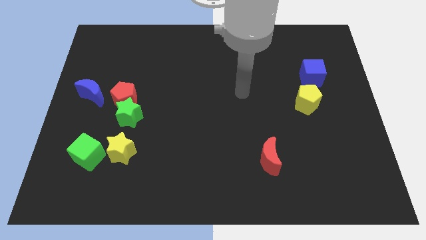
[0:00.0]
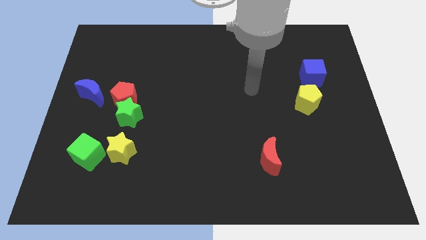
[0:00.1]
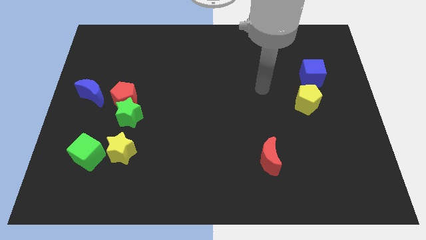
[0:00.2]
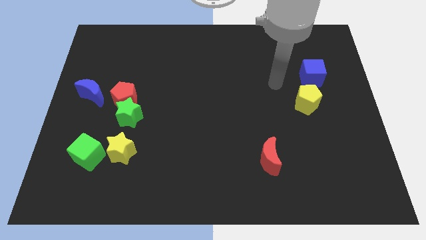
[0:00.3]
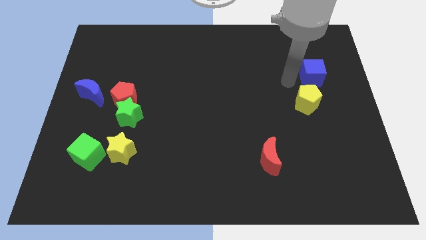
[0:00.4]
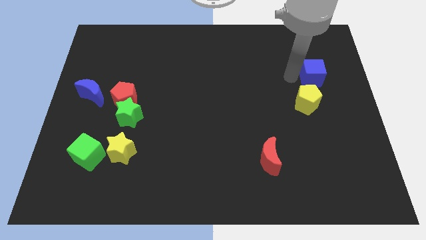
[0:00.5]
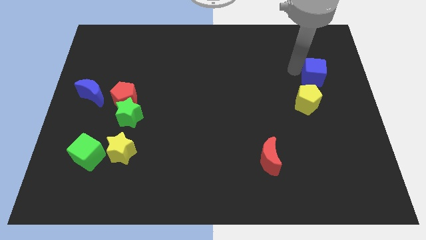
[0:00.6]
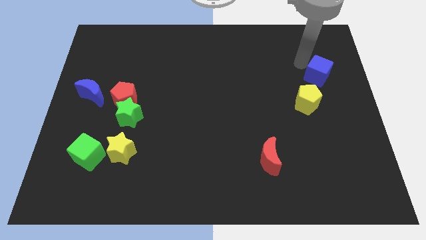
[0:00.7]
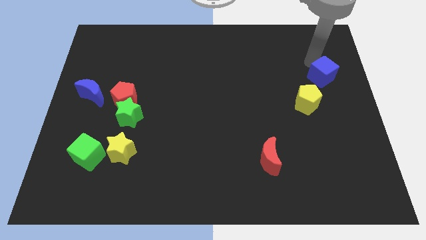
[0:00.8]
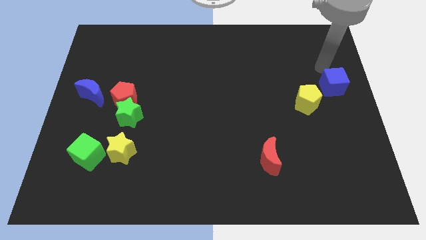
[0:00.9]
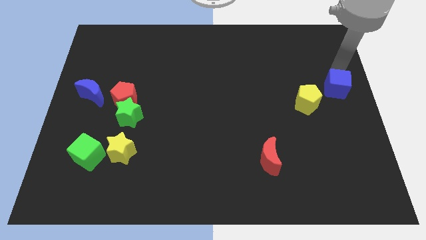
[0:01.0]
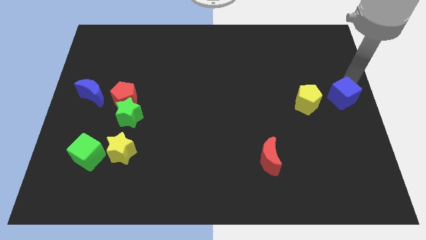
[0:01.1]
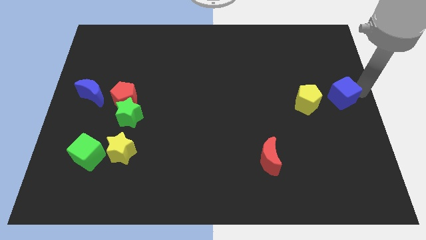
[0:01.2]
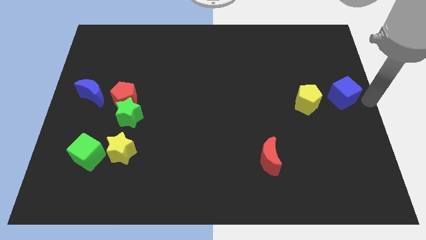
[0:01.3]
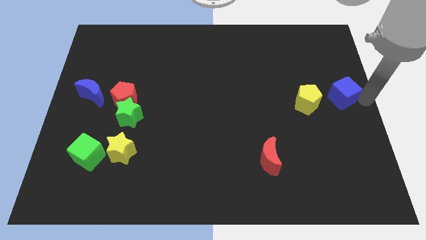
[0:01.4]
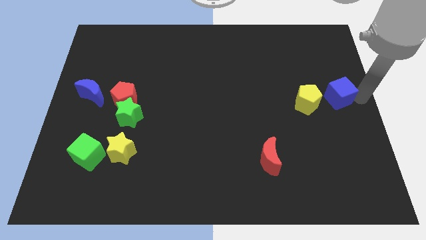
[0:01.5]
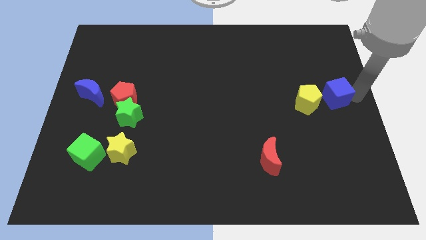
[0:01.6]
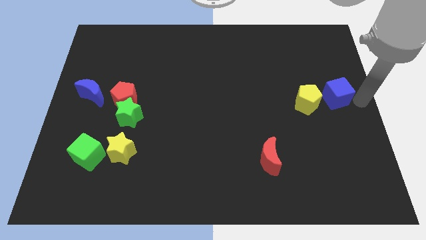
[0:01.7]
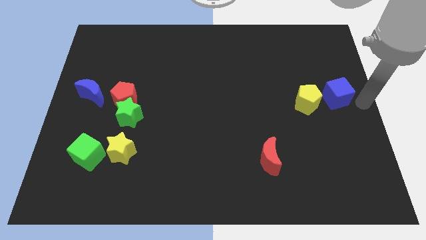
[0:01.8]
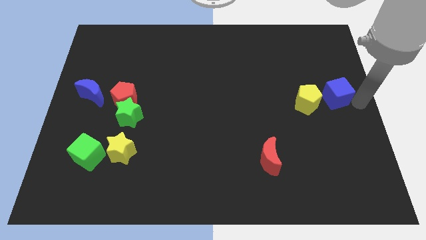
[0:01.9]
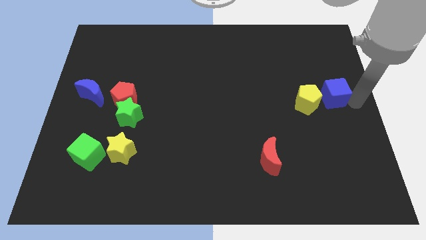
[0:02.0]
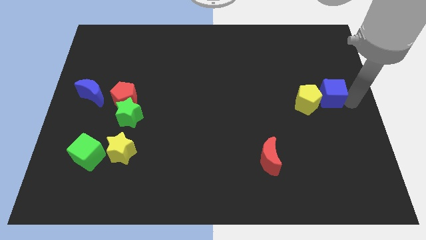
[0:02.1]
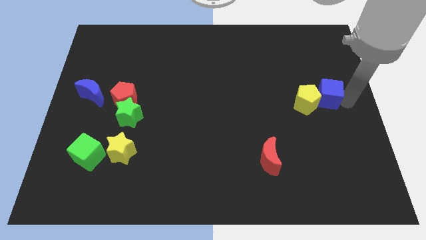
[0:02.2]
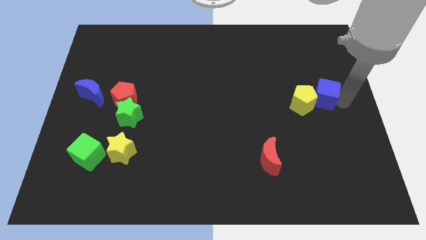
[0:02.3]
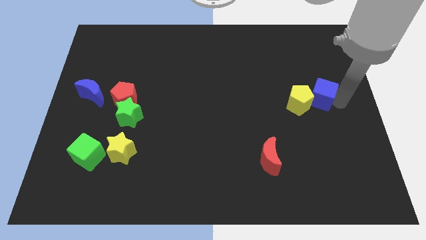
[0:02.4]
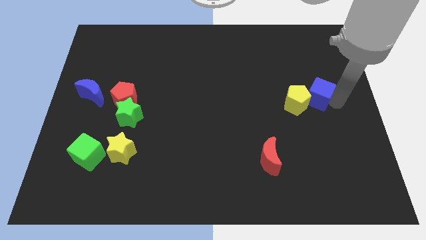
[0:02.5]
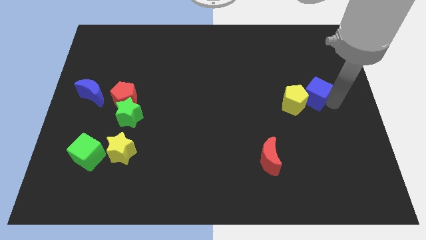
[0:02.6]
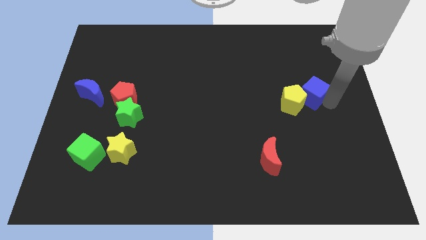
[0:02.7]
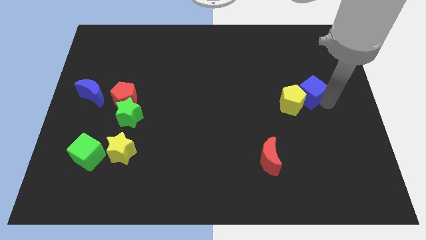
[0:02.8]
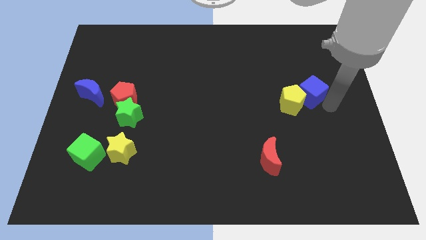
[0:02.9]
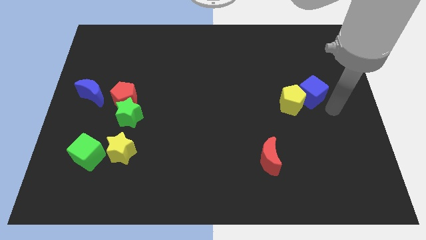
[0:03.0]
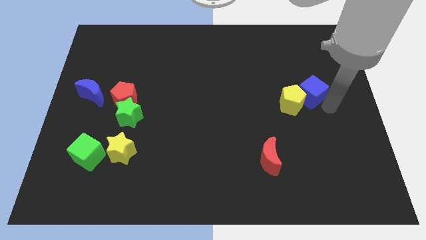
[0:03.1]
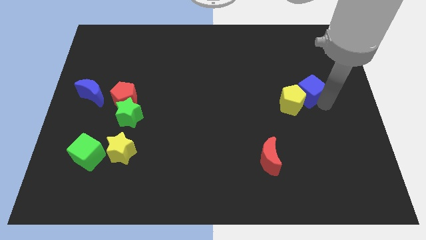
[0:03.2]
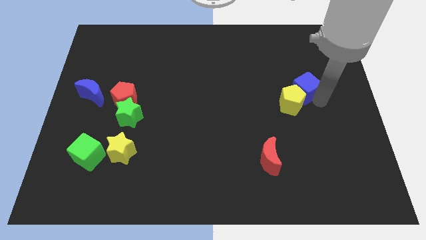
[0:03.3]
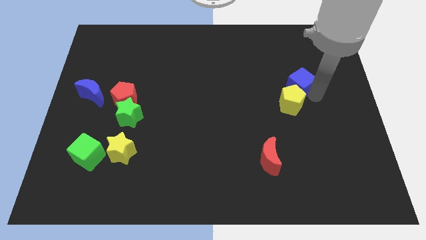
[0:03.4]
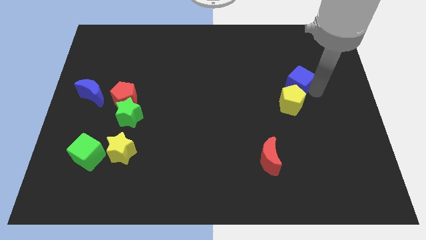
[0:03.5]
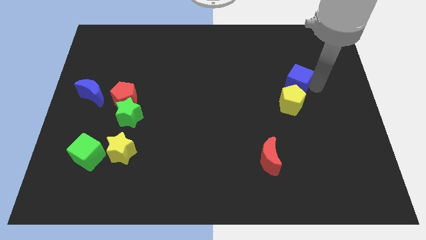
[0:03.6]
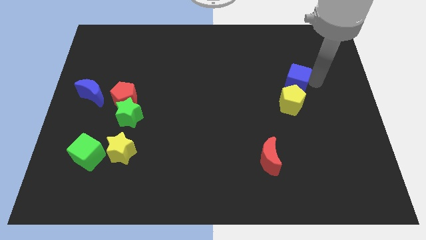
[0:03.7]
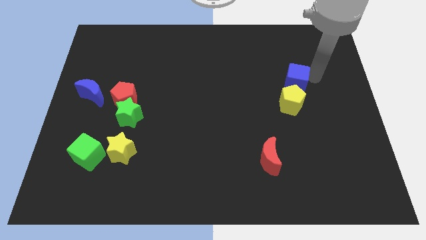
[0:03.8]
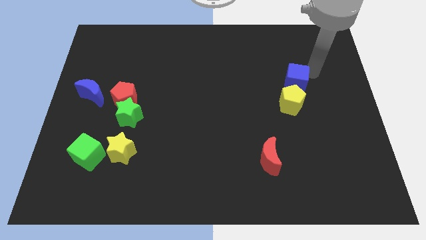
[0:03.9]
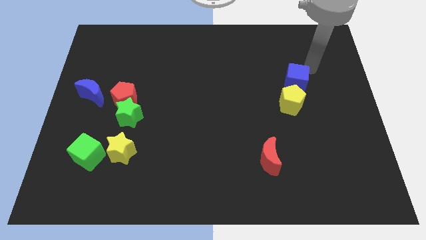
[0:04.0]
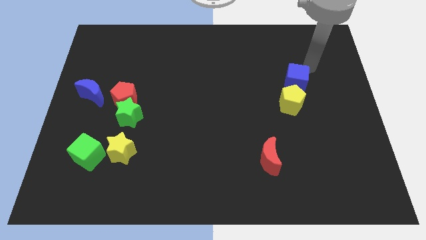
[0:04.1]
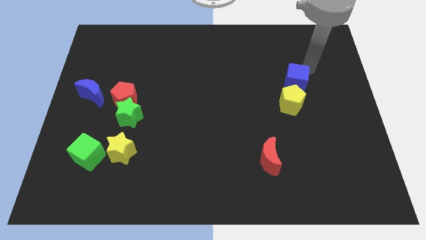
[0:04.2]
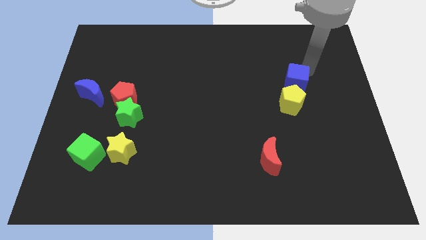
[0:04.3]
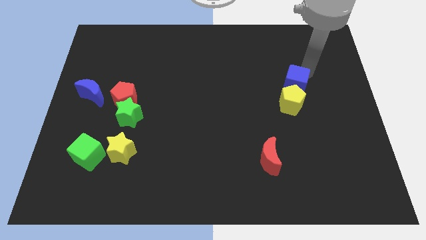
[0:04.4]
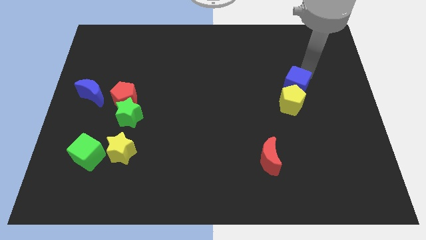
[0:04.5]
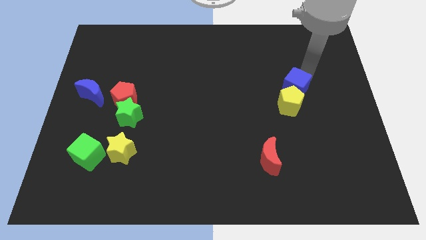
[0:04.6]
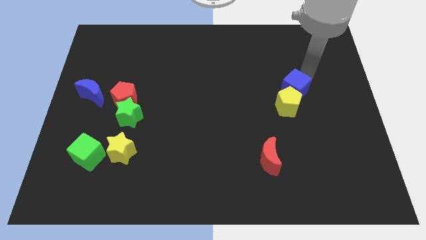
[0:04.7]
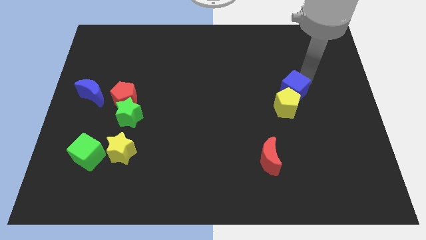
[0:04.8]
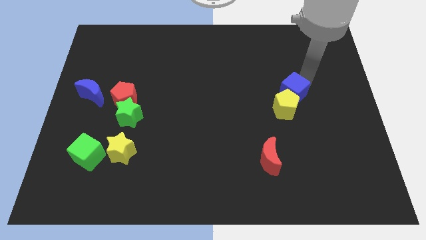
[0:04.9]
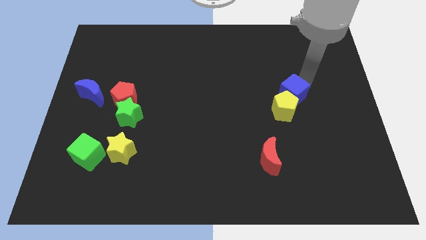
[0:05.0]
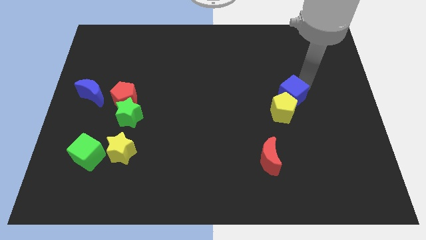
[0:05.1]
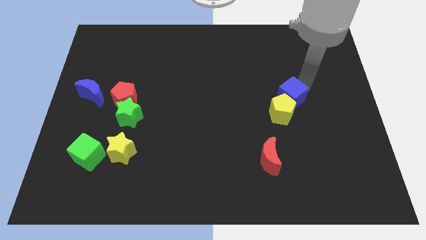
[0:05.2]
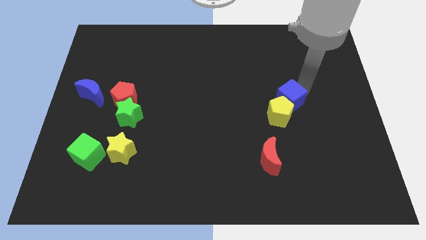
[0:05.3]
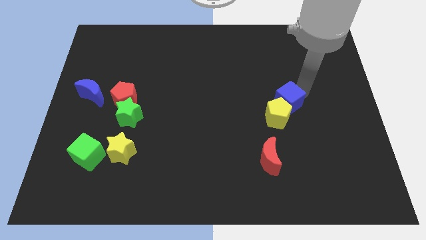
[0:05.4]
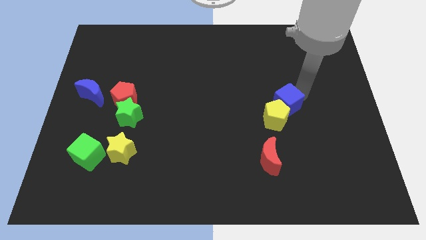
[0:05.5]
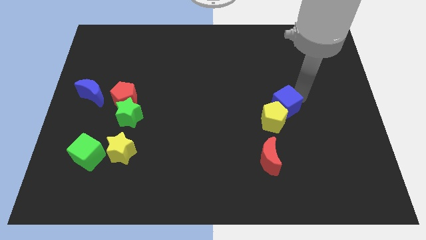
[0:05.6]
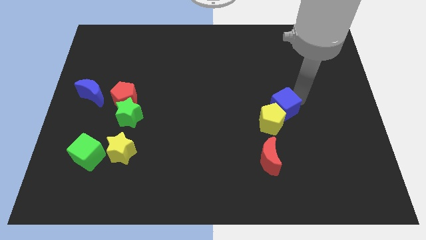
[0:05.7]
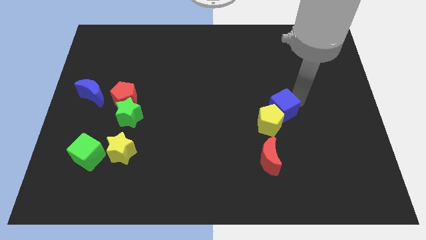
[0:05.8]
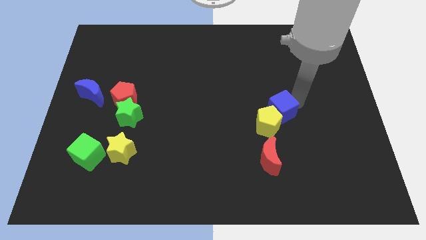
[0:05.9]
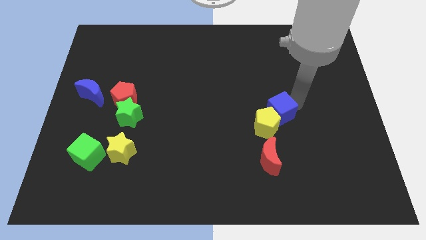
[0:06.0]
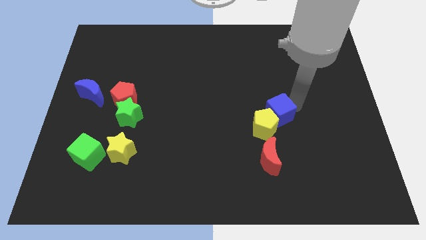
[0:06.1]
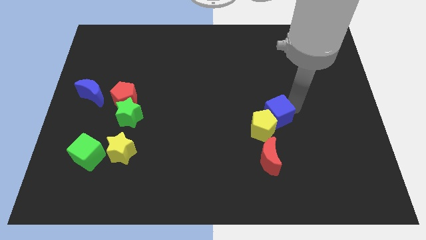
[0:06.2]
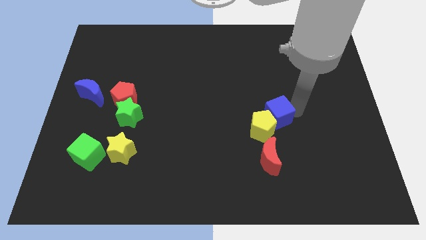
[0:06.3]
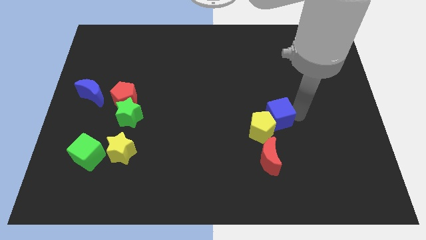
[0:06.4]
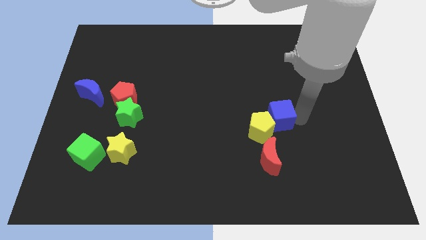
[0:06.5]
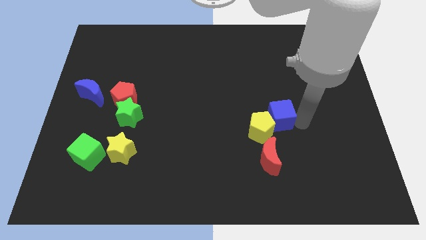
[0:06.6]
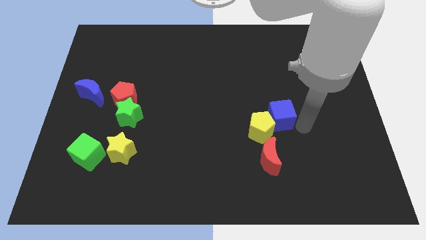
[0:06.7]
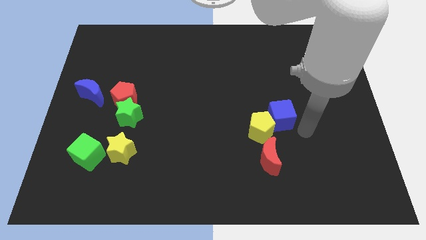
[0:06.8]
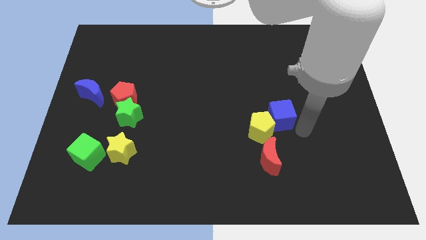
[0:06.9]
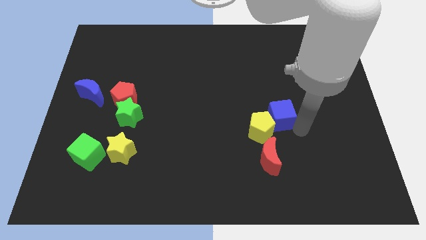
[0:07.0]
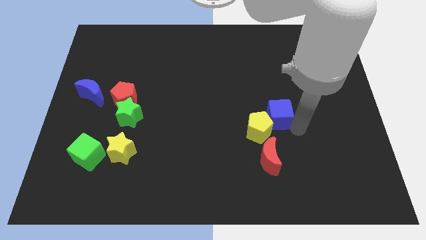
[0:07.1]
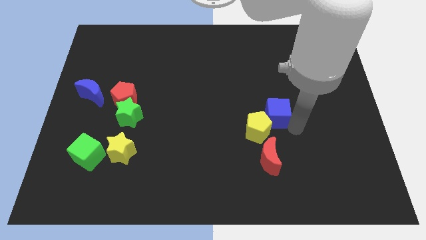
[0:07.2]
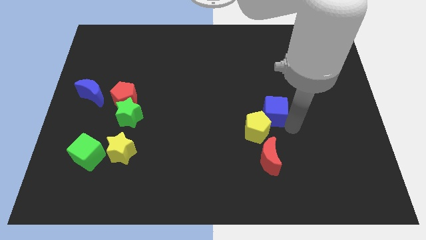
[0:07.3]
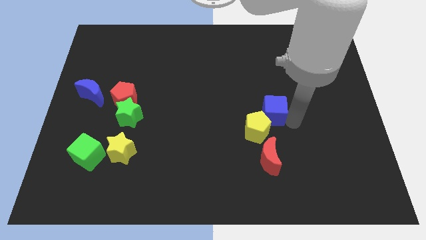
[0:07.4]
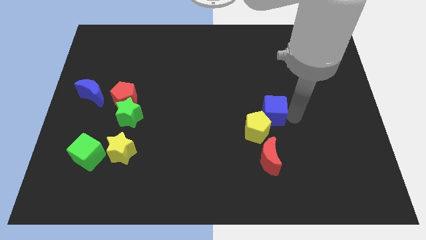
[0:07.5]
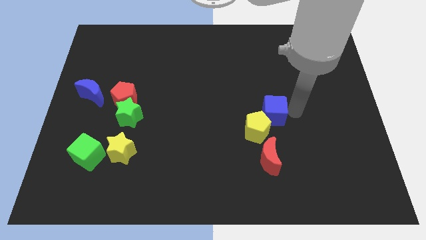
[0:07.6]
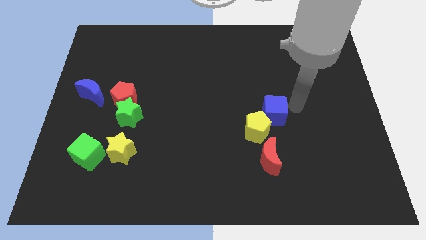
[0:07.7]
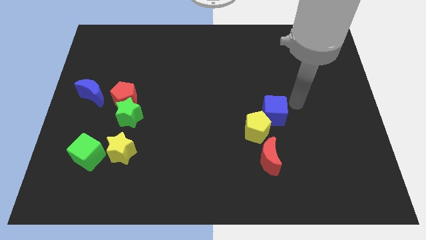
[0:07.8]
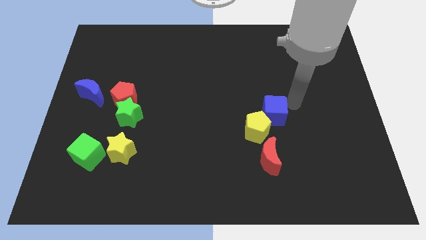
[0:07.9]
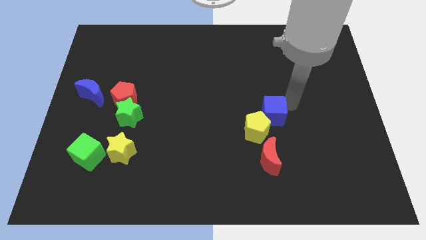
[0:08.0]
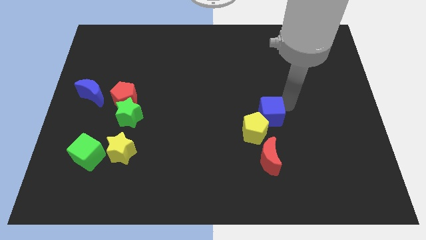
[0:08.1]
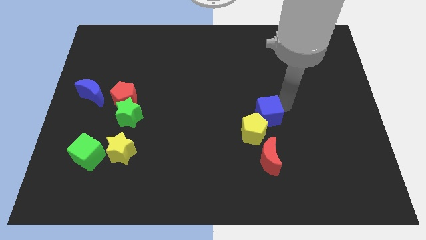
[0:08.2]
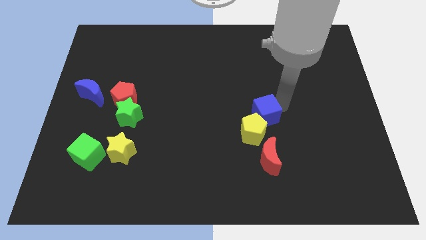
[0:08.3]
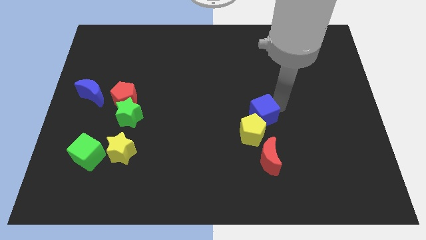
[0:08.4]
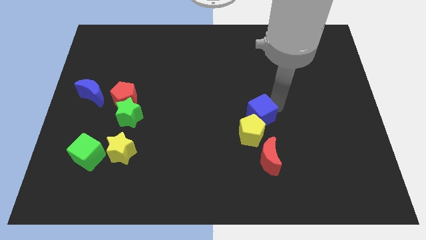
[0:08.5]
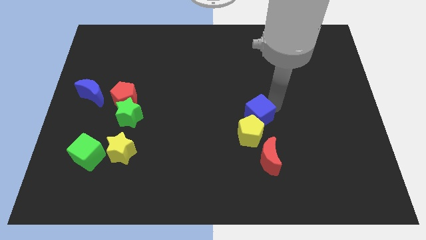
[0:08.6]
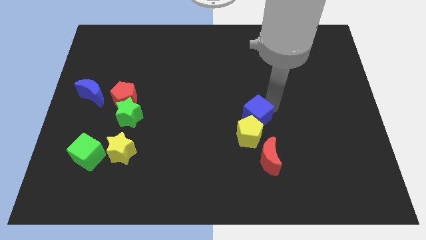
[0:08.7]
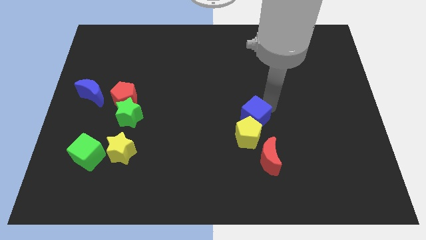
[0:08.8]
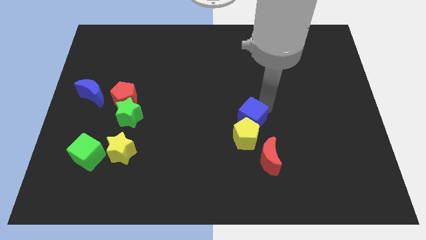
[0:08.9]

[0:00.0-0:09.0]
move the blue cube down and to the left
